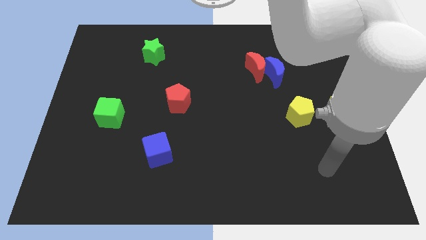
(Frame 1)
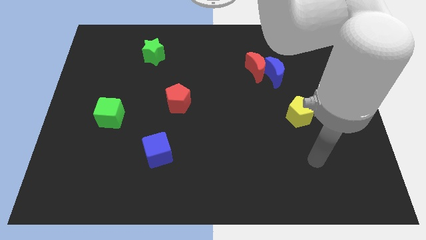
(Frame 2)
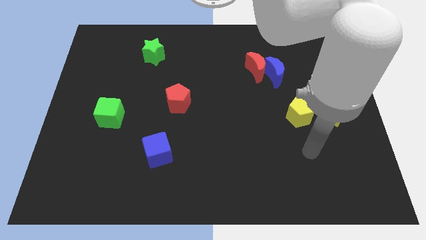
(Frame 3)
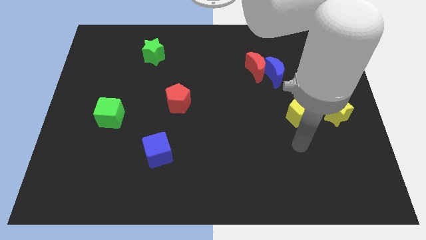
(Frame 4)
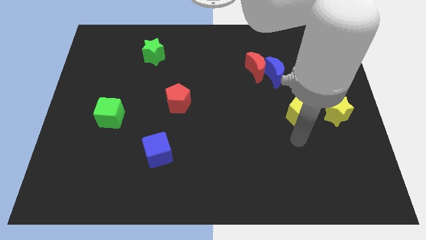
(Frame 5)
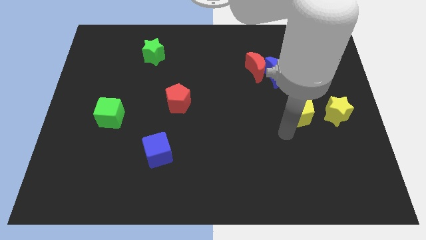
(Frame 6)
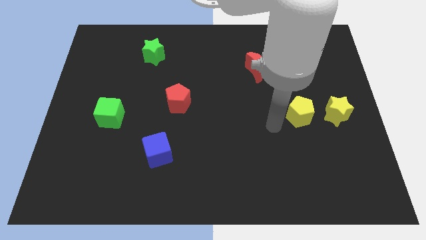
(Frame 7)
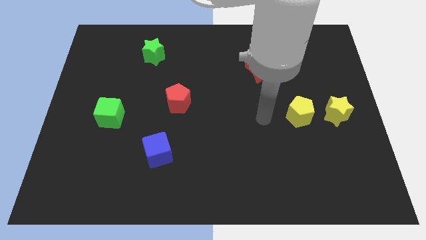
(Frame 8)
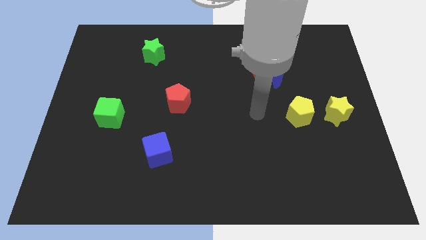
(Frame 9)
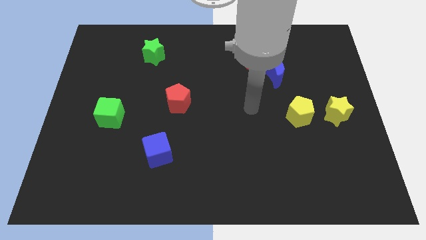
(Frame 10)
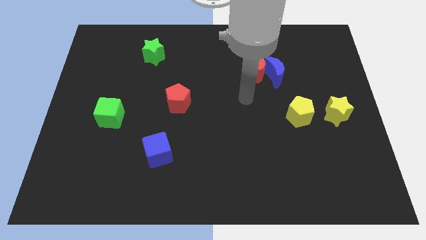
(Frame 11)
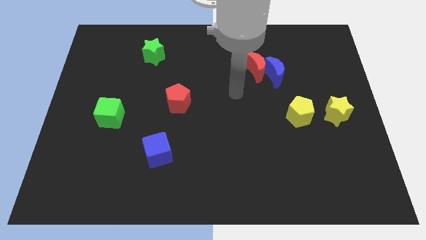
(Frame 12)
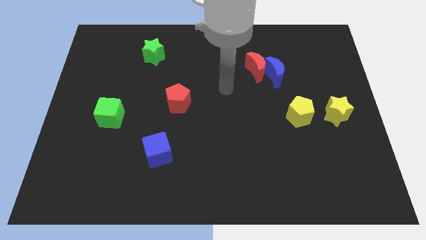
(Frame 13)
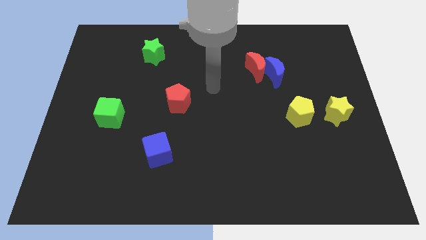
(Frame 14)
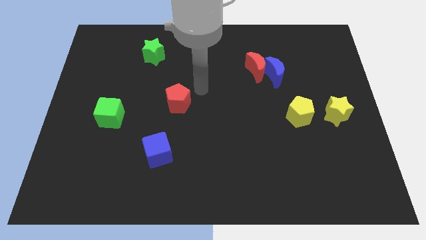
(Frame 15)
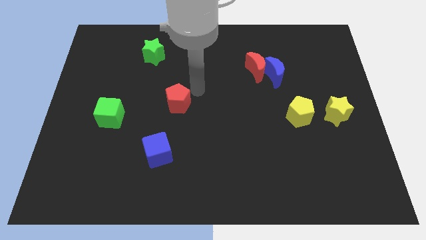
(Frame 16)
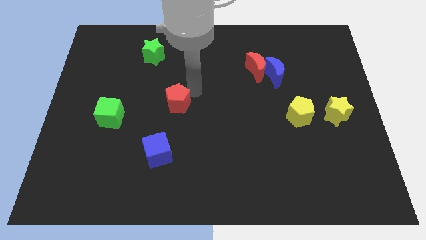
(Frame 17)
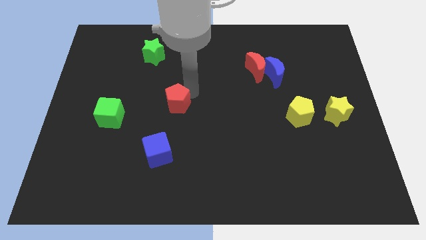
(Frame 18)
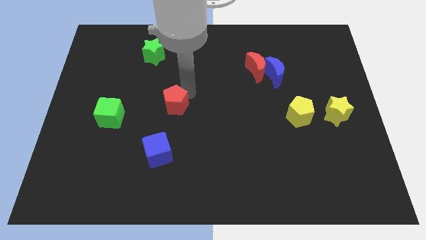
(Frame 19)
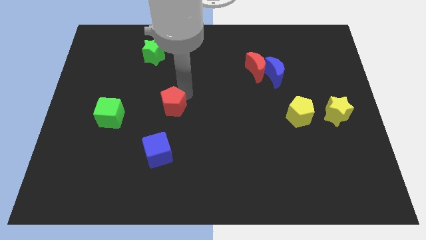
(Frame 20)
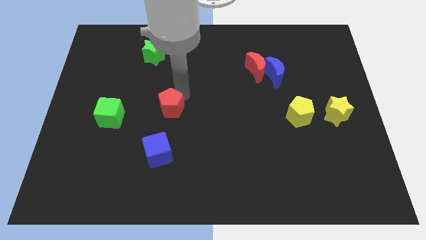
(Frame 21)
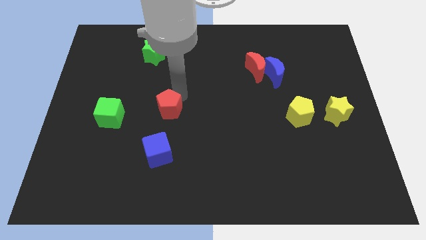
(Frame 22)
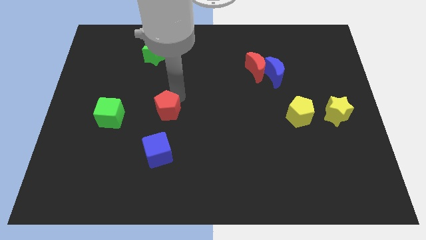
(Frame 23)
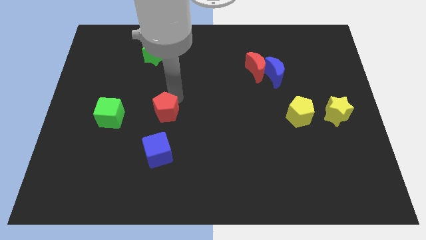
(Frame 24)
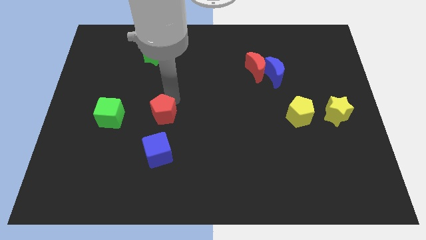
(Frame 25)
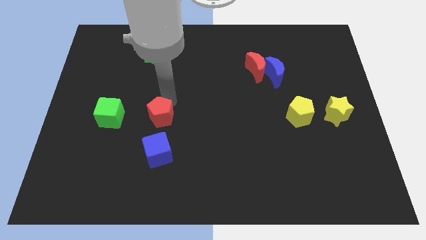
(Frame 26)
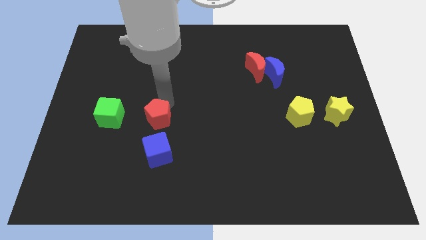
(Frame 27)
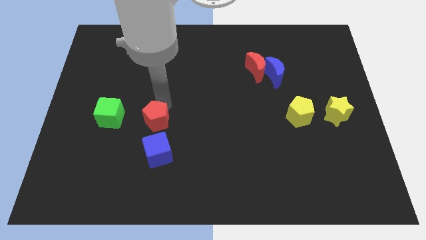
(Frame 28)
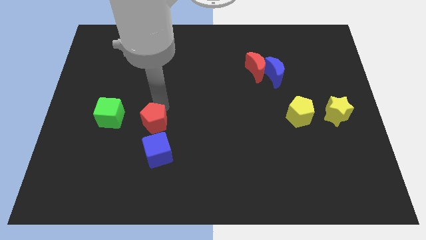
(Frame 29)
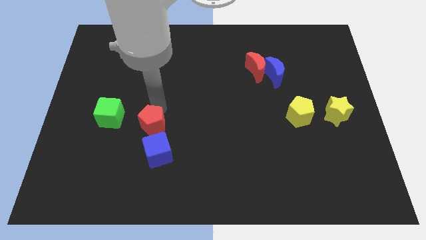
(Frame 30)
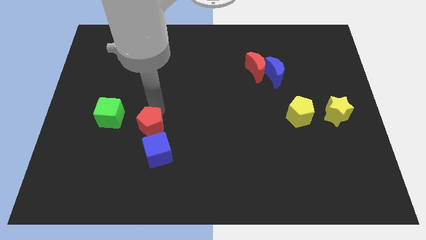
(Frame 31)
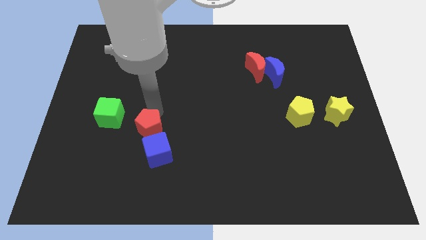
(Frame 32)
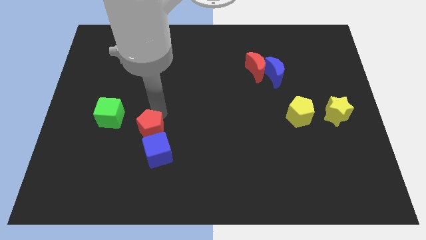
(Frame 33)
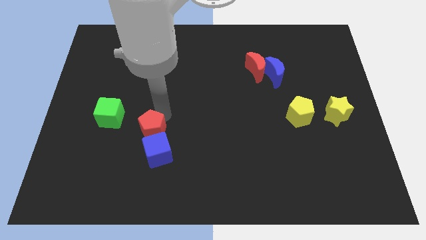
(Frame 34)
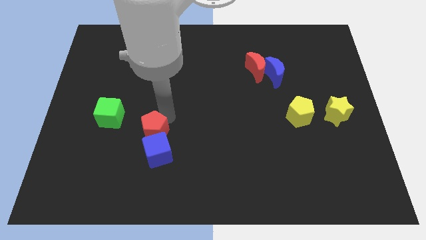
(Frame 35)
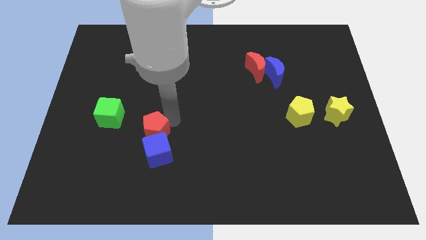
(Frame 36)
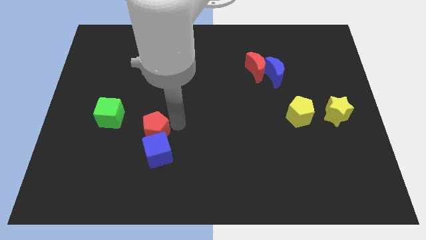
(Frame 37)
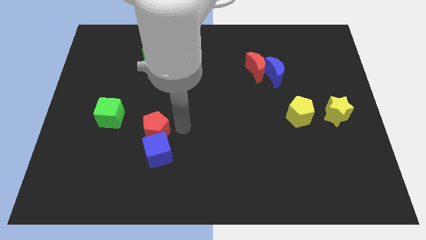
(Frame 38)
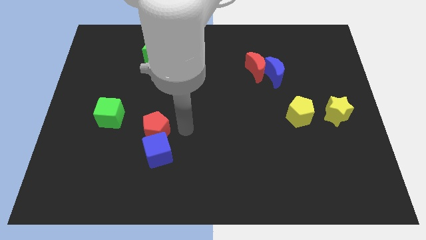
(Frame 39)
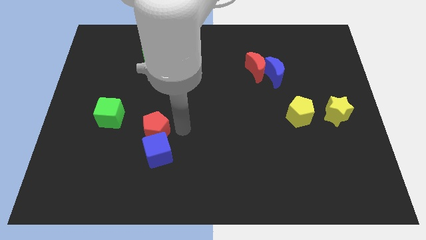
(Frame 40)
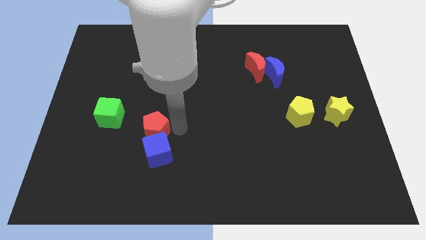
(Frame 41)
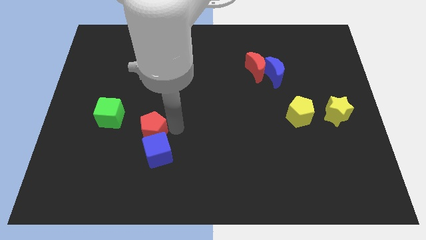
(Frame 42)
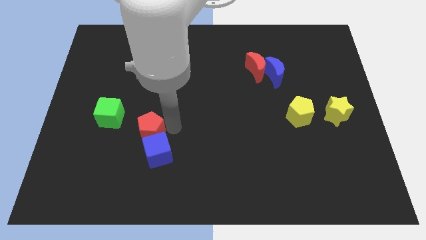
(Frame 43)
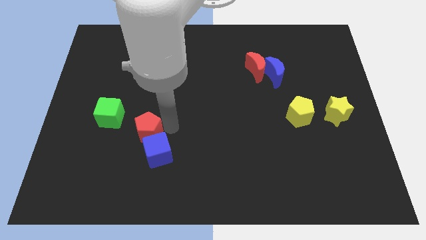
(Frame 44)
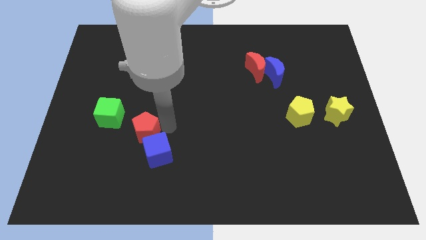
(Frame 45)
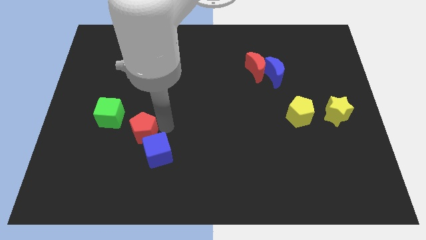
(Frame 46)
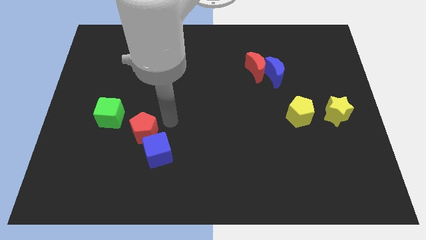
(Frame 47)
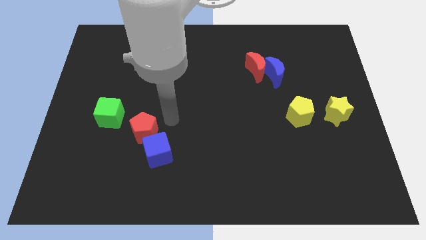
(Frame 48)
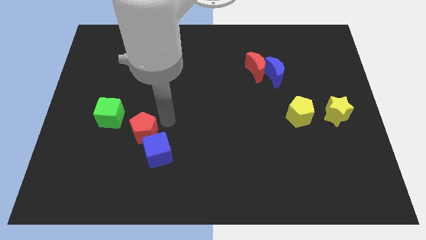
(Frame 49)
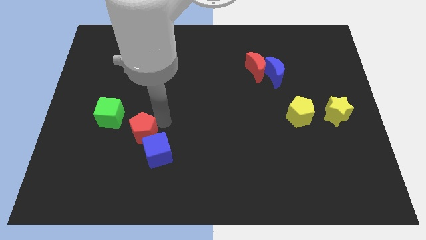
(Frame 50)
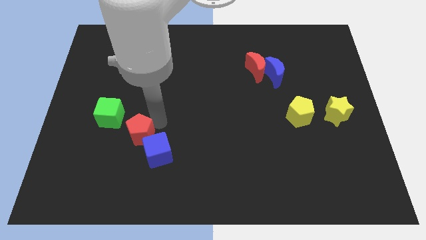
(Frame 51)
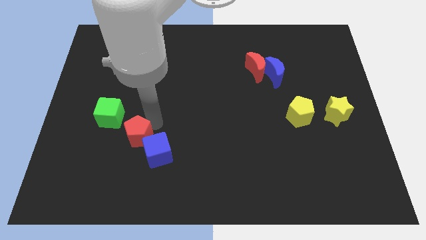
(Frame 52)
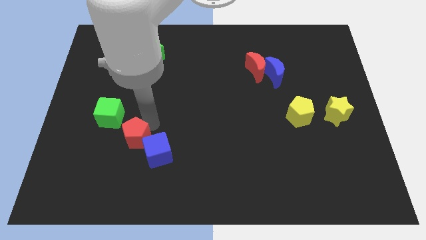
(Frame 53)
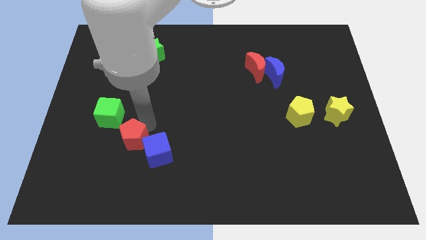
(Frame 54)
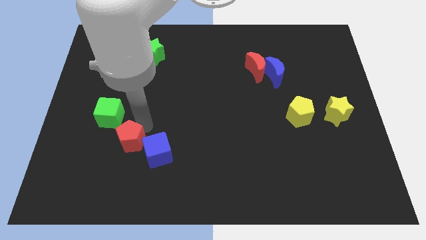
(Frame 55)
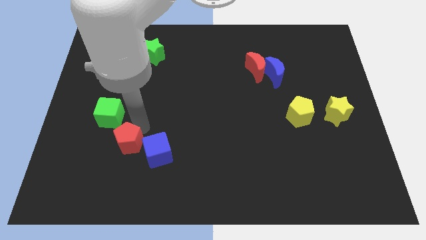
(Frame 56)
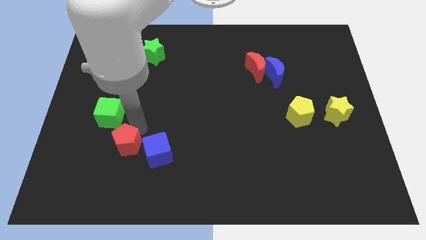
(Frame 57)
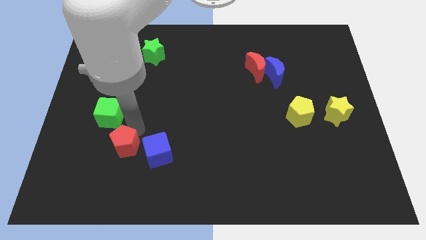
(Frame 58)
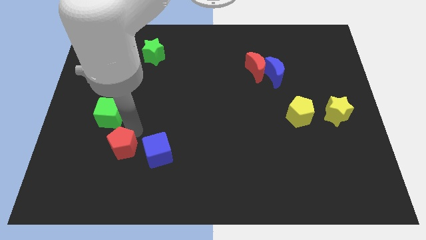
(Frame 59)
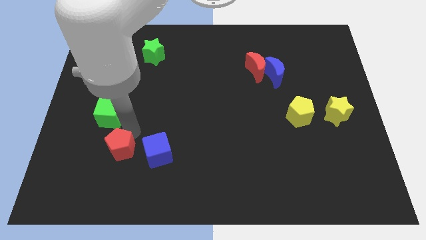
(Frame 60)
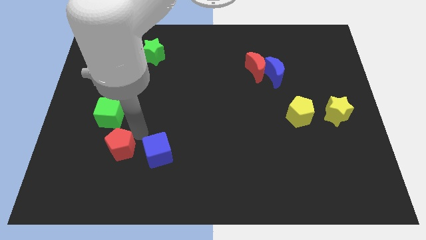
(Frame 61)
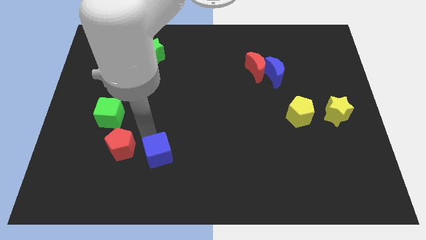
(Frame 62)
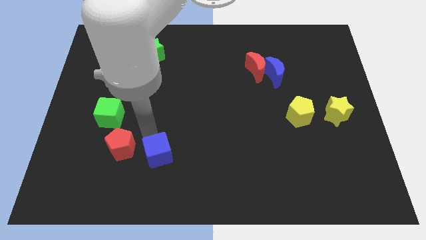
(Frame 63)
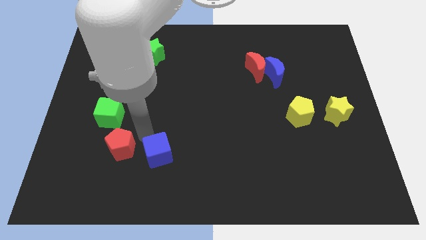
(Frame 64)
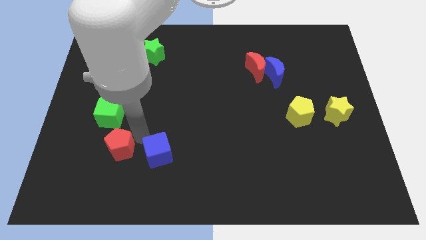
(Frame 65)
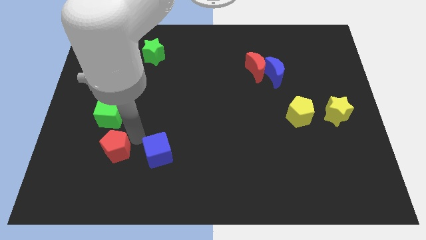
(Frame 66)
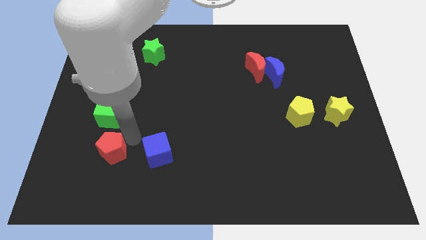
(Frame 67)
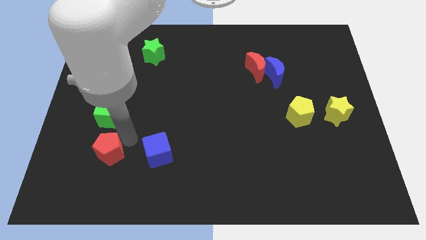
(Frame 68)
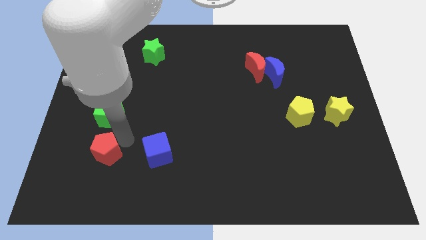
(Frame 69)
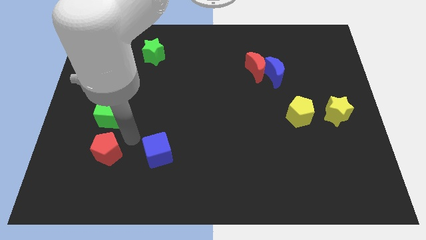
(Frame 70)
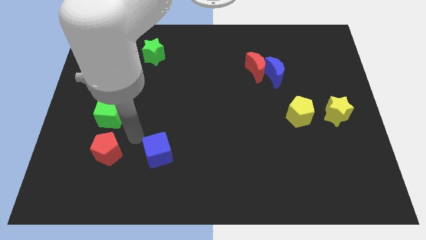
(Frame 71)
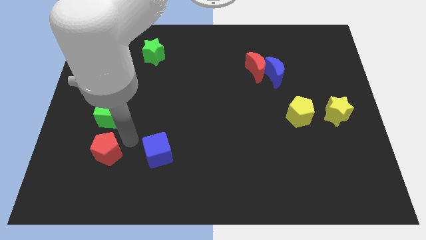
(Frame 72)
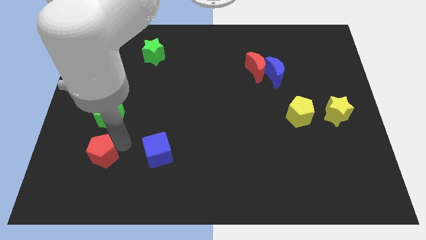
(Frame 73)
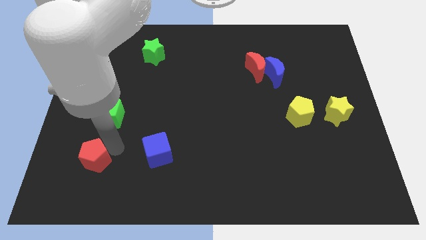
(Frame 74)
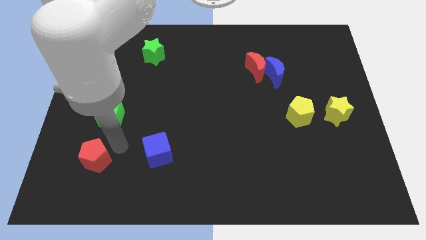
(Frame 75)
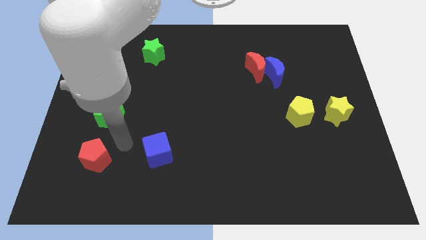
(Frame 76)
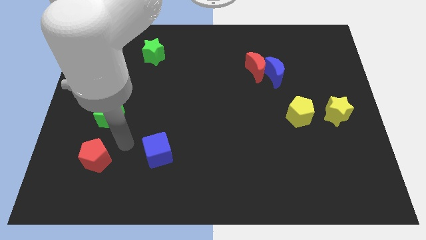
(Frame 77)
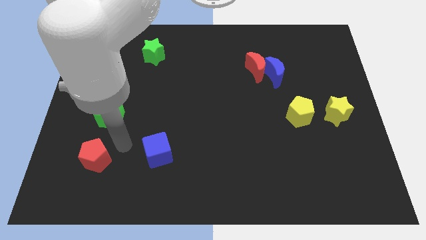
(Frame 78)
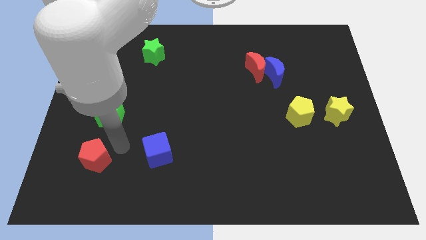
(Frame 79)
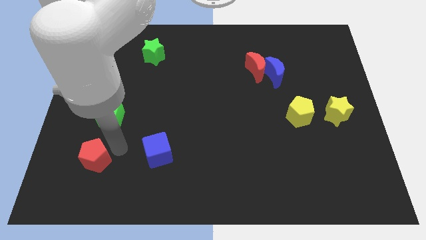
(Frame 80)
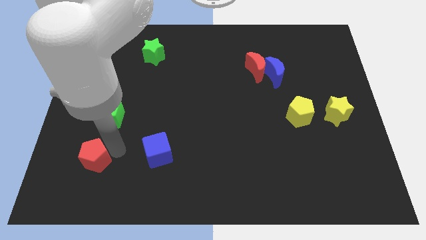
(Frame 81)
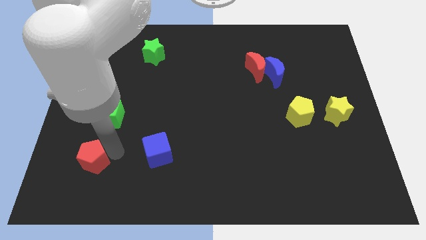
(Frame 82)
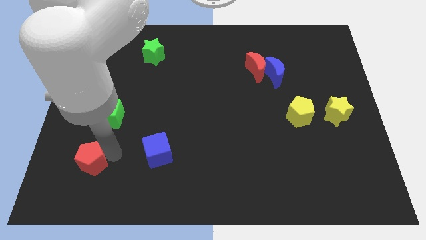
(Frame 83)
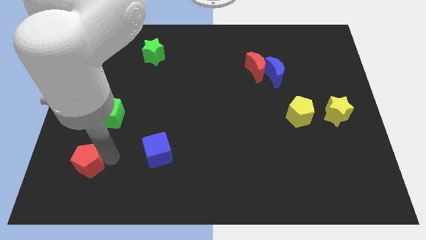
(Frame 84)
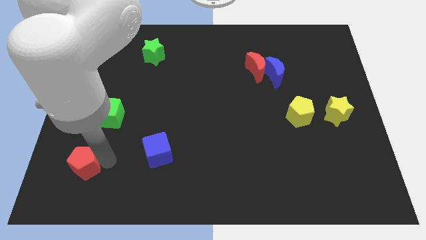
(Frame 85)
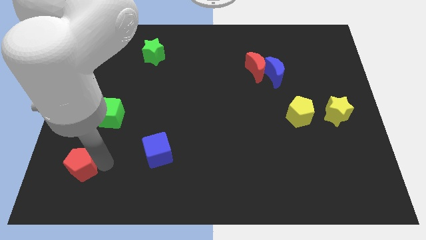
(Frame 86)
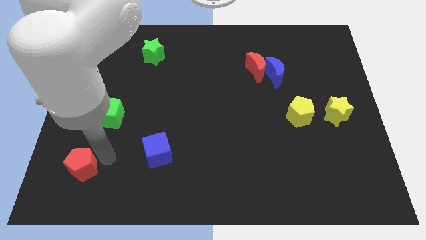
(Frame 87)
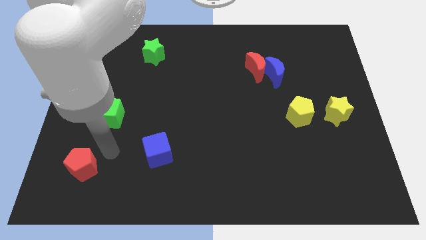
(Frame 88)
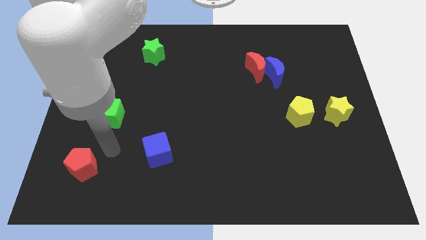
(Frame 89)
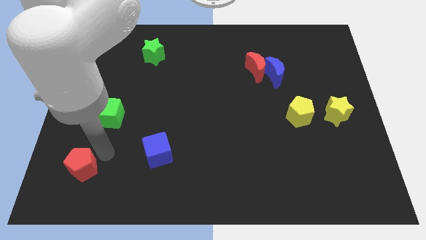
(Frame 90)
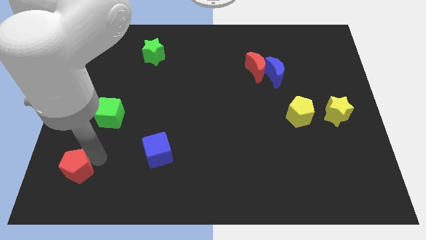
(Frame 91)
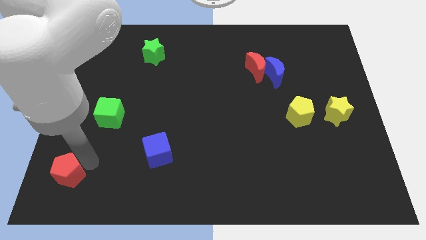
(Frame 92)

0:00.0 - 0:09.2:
push the red pentagon to the bottom left corner
